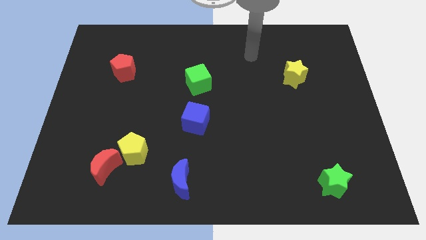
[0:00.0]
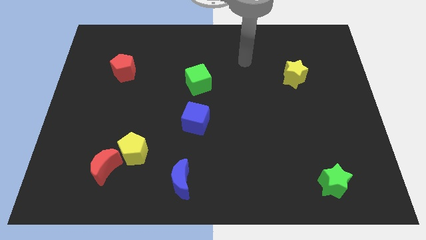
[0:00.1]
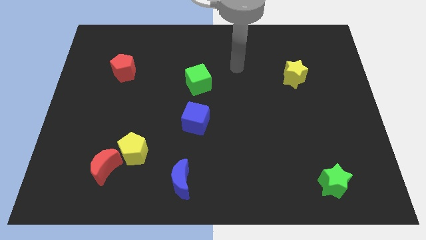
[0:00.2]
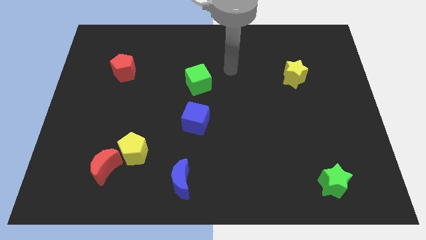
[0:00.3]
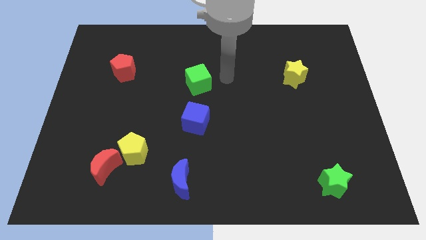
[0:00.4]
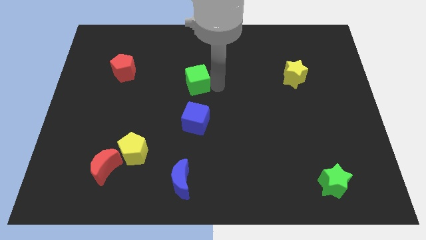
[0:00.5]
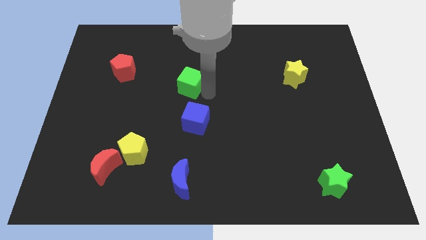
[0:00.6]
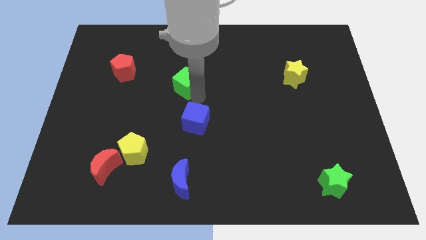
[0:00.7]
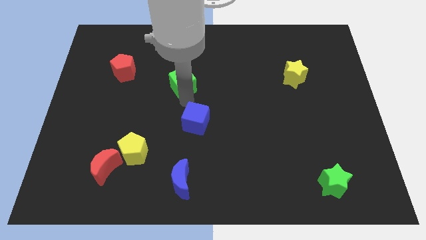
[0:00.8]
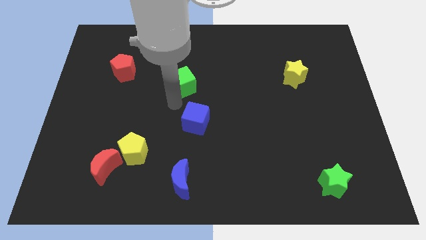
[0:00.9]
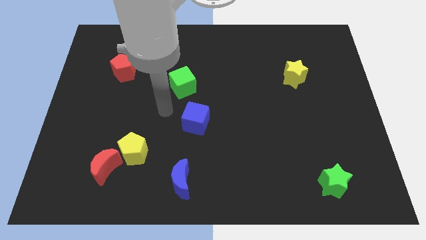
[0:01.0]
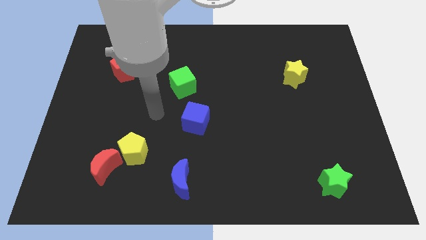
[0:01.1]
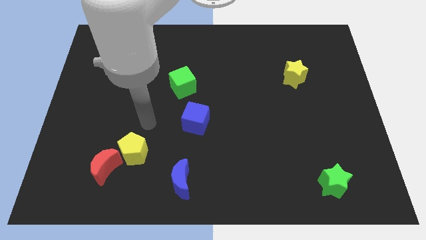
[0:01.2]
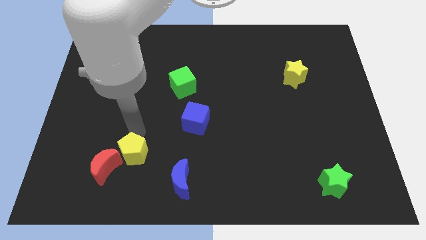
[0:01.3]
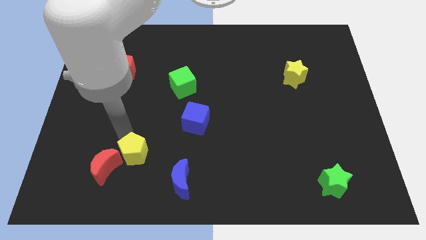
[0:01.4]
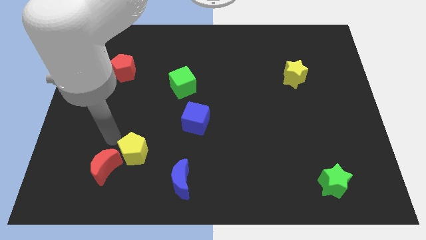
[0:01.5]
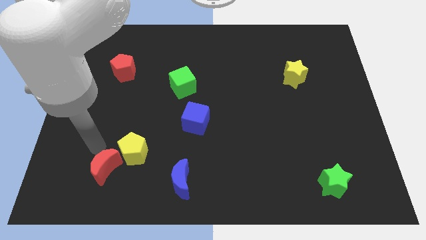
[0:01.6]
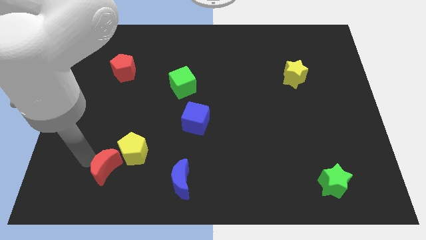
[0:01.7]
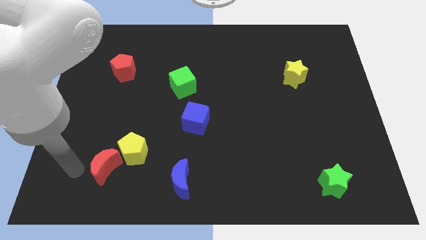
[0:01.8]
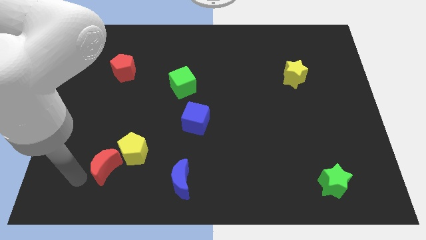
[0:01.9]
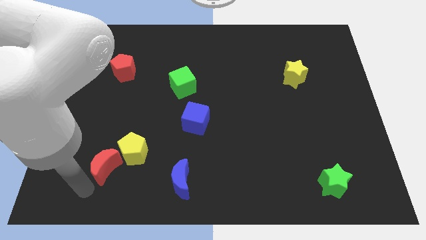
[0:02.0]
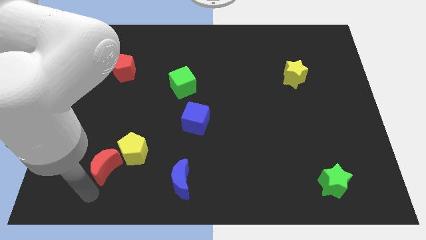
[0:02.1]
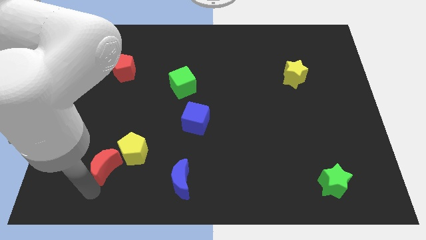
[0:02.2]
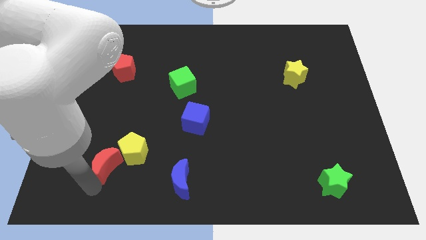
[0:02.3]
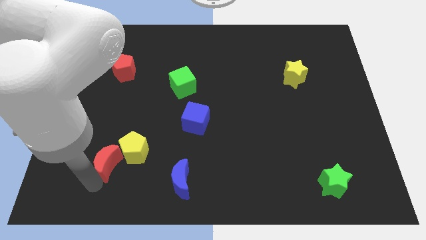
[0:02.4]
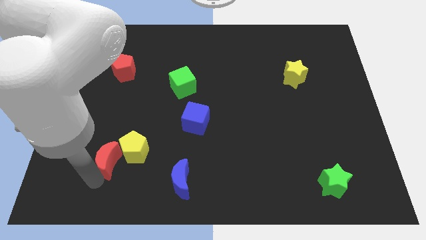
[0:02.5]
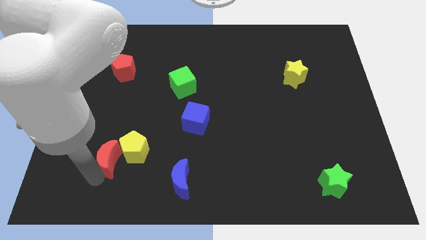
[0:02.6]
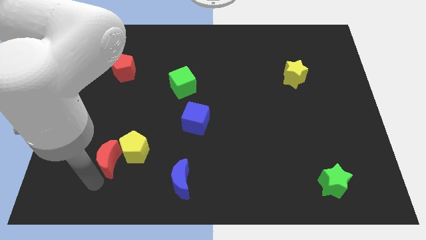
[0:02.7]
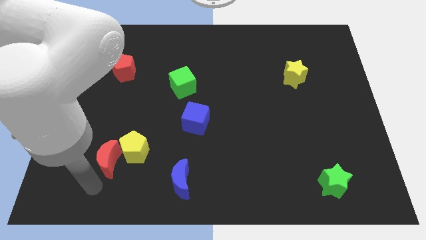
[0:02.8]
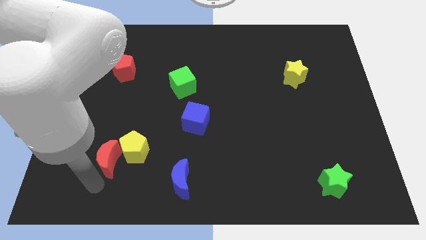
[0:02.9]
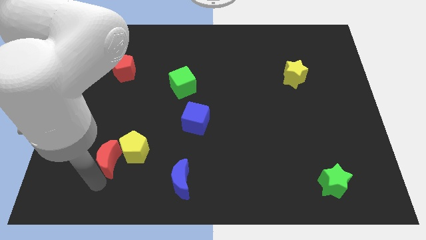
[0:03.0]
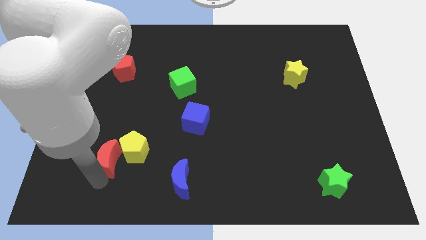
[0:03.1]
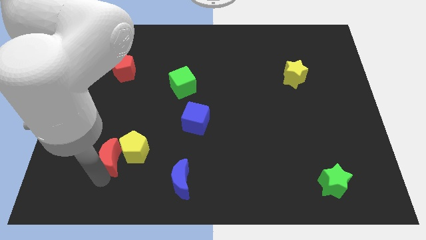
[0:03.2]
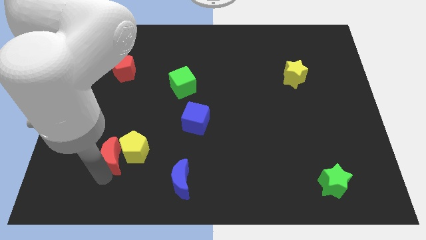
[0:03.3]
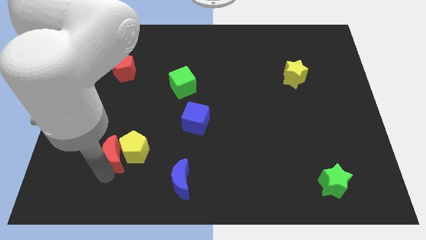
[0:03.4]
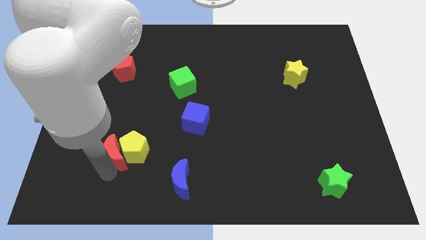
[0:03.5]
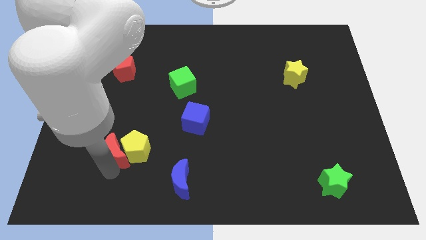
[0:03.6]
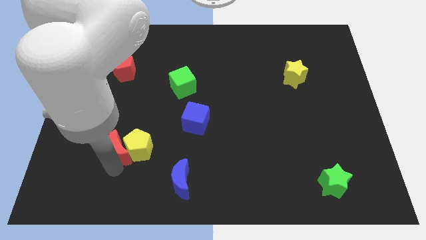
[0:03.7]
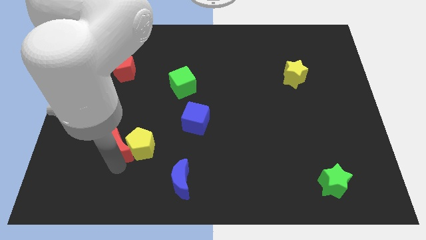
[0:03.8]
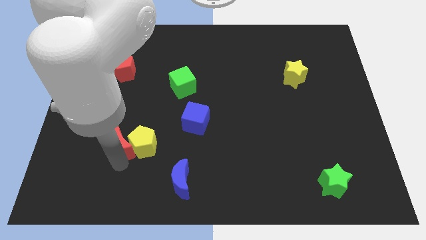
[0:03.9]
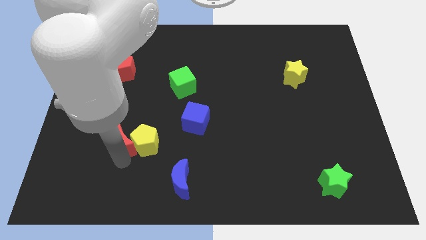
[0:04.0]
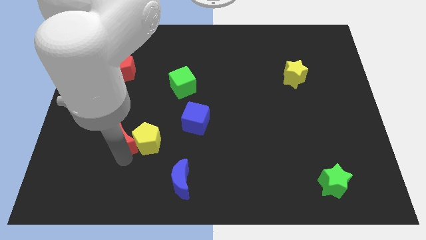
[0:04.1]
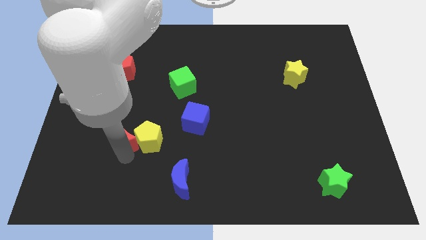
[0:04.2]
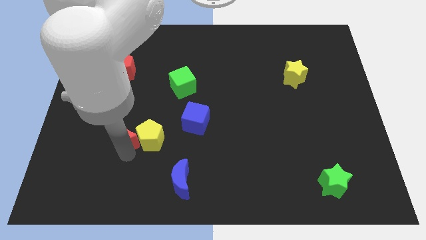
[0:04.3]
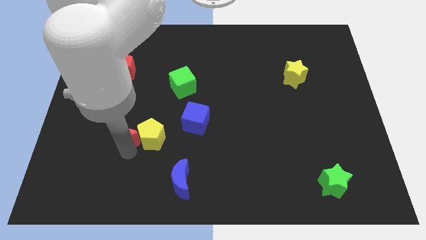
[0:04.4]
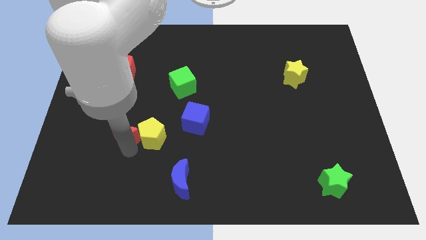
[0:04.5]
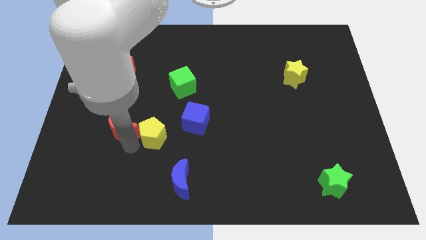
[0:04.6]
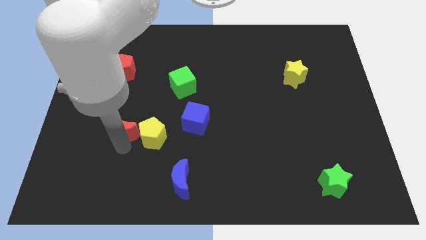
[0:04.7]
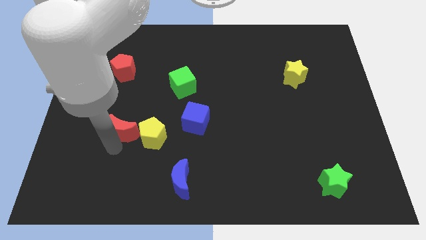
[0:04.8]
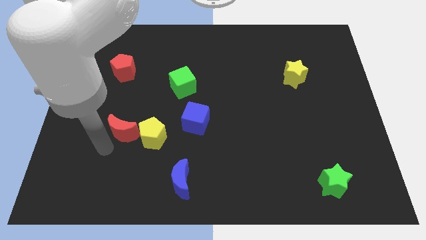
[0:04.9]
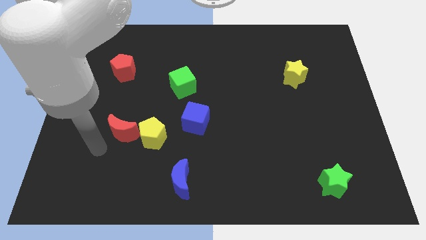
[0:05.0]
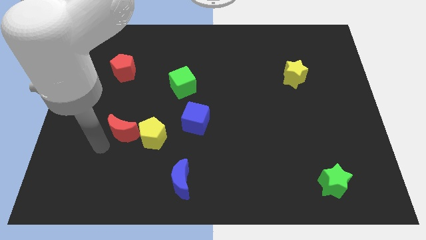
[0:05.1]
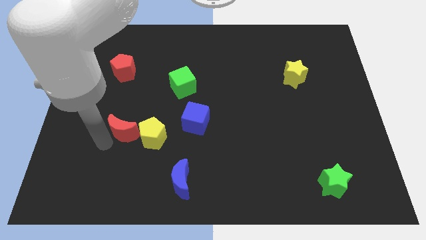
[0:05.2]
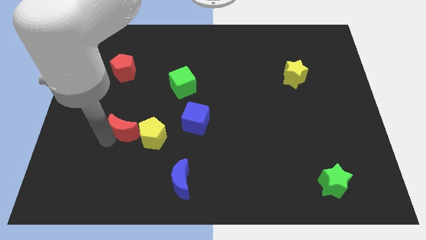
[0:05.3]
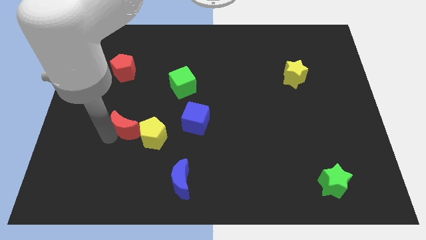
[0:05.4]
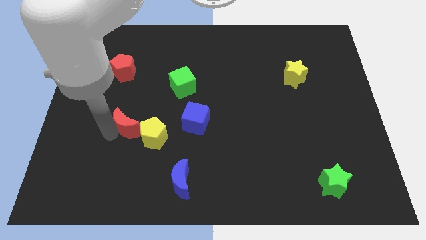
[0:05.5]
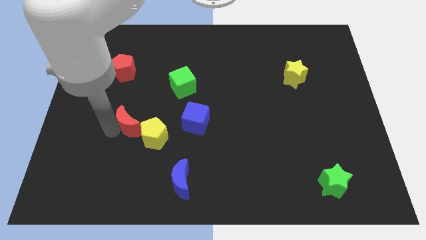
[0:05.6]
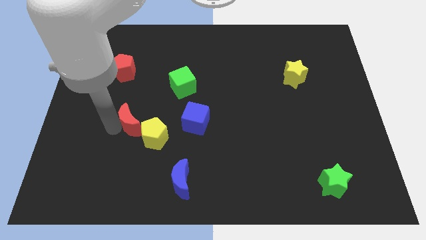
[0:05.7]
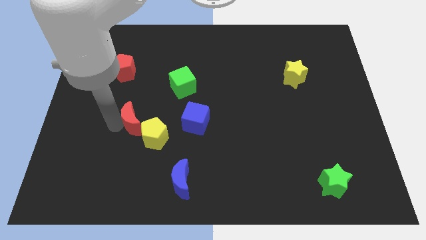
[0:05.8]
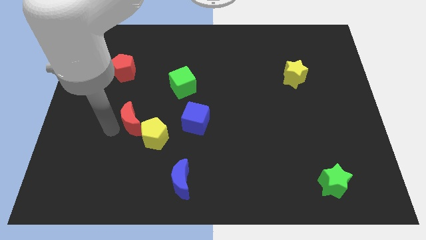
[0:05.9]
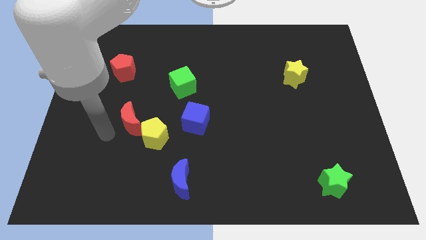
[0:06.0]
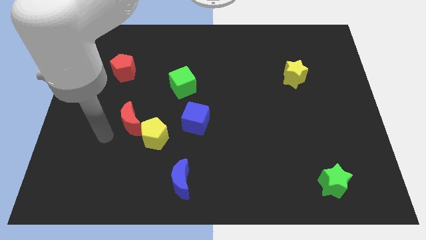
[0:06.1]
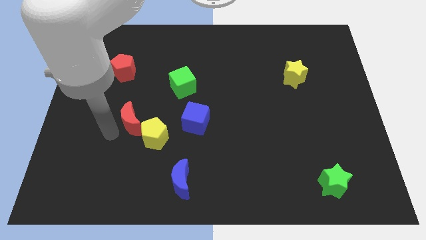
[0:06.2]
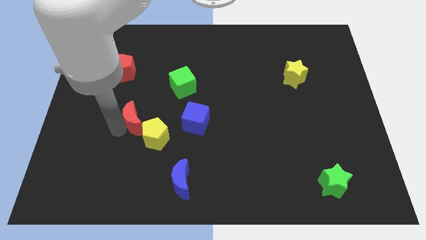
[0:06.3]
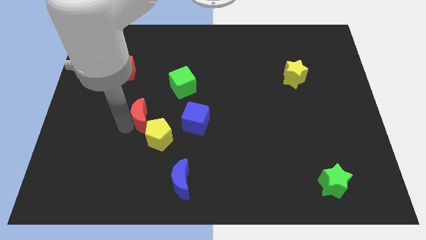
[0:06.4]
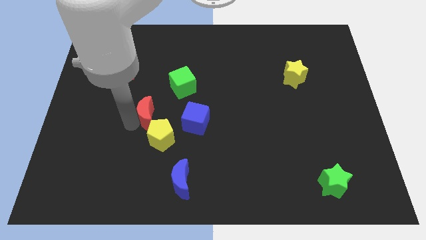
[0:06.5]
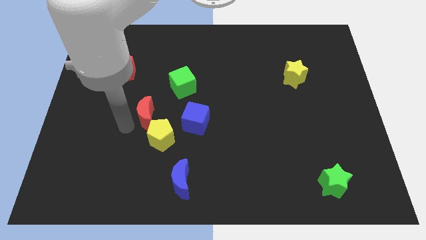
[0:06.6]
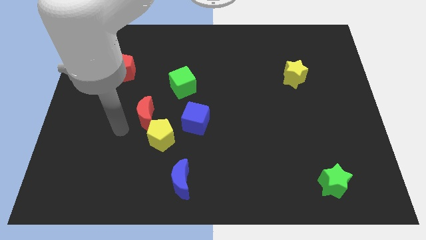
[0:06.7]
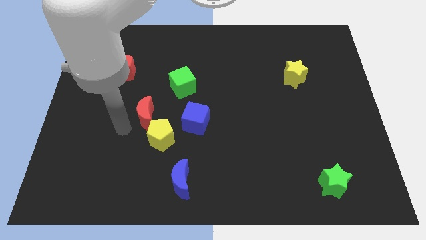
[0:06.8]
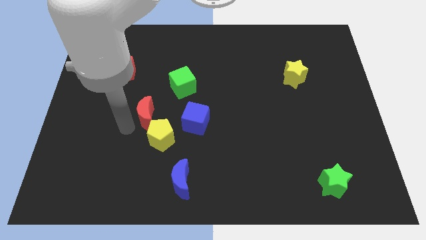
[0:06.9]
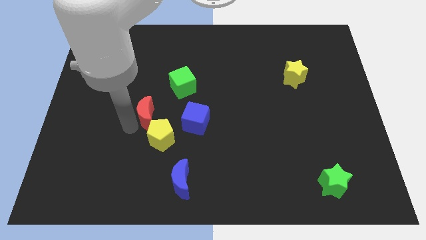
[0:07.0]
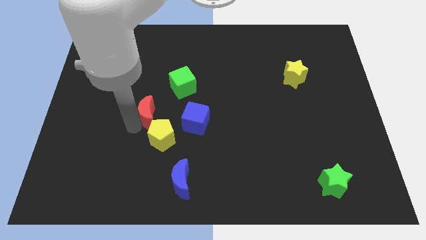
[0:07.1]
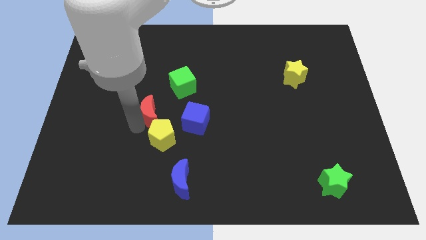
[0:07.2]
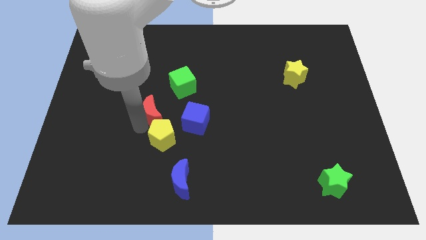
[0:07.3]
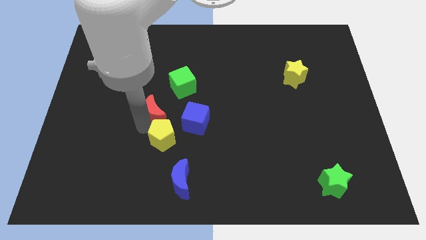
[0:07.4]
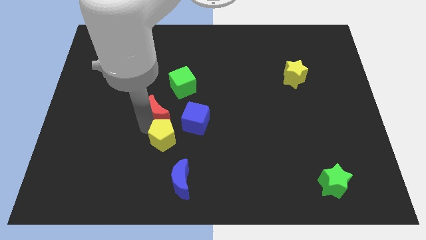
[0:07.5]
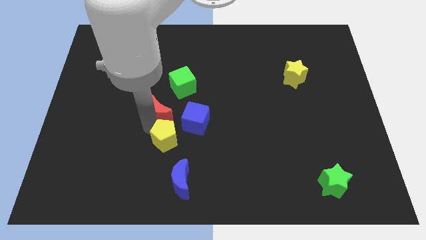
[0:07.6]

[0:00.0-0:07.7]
put the red moon to the top left of the blue cube
